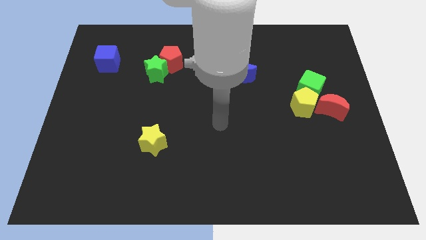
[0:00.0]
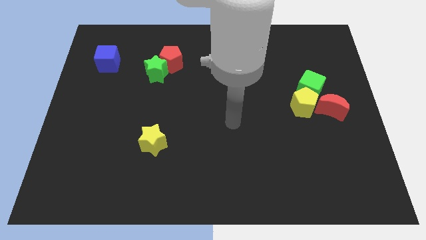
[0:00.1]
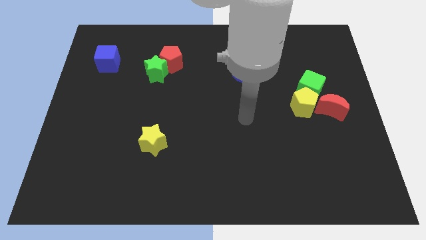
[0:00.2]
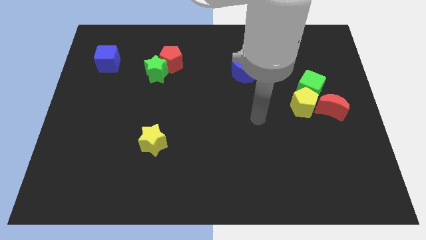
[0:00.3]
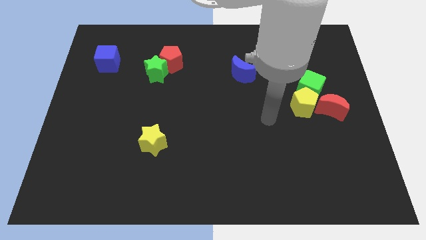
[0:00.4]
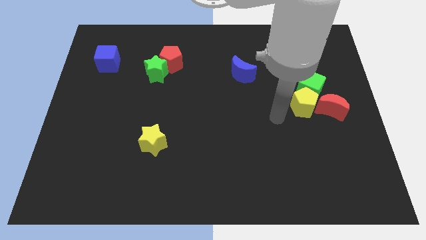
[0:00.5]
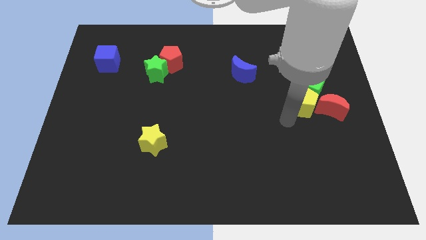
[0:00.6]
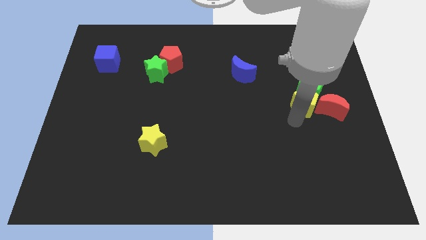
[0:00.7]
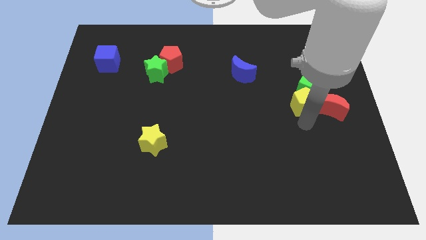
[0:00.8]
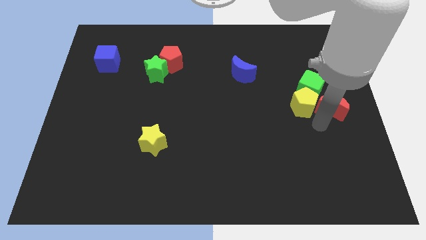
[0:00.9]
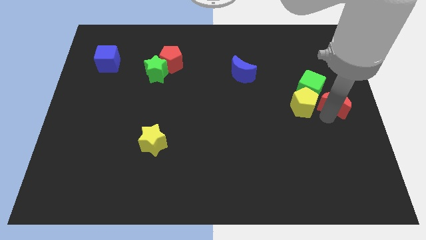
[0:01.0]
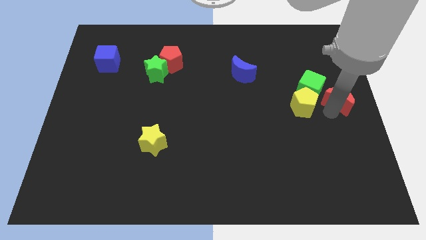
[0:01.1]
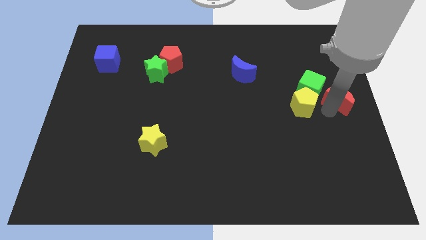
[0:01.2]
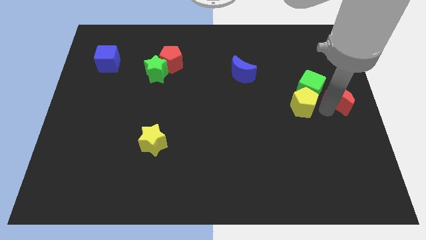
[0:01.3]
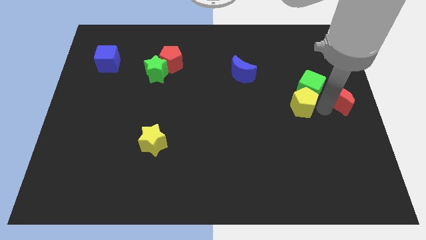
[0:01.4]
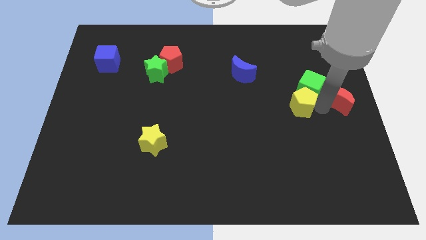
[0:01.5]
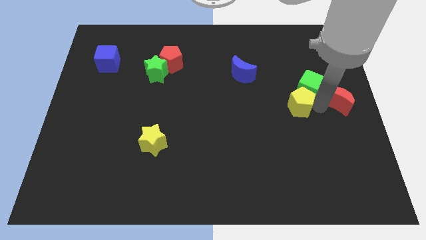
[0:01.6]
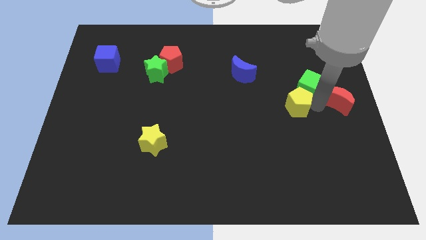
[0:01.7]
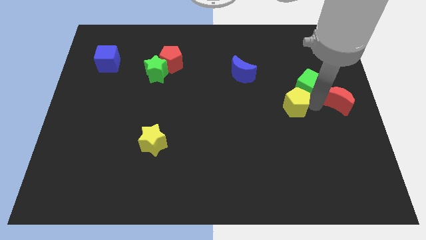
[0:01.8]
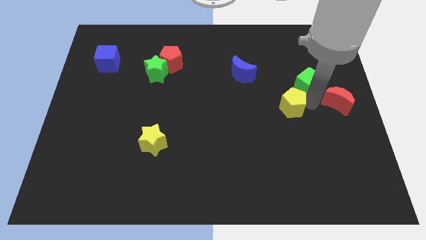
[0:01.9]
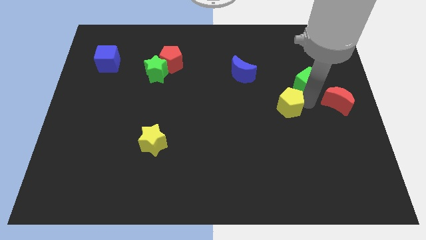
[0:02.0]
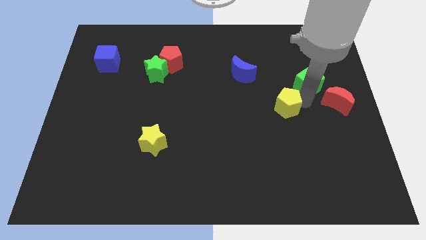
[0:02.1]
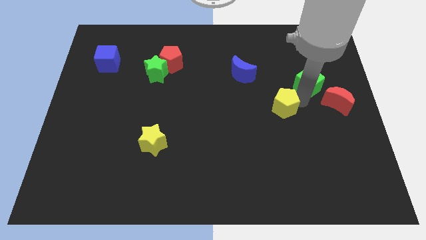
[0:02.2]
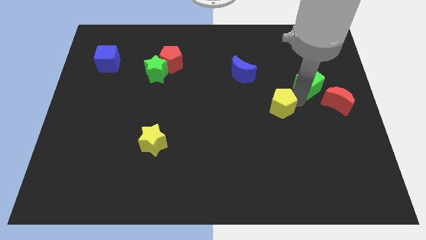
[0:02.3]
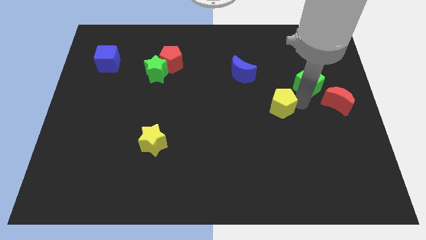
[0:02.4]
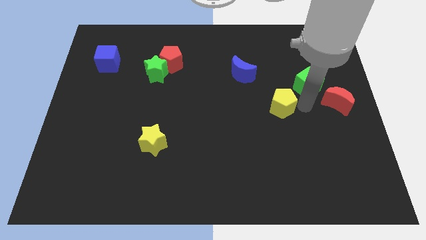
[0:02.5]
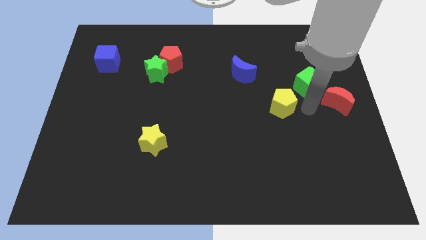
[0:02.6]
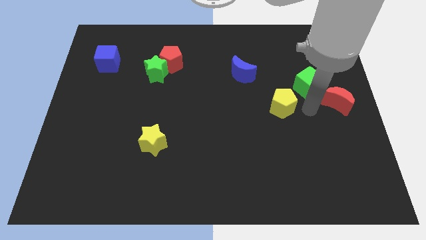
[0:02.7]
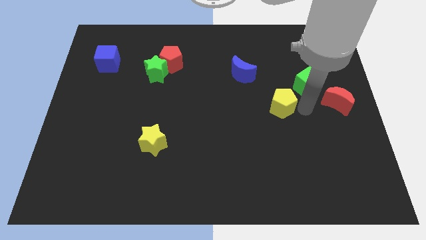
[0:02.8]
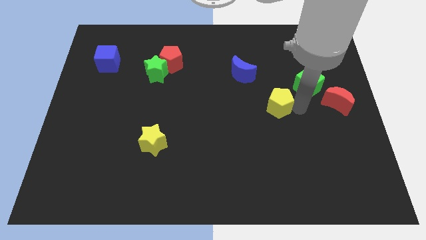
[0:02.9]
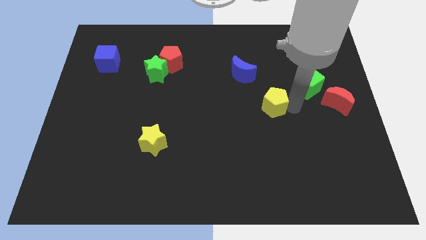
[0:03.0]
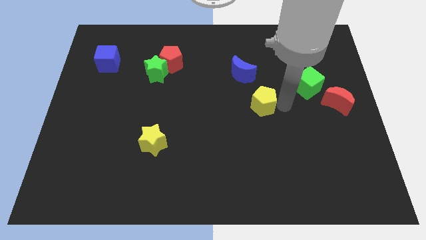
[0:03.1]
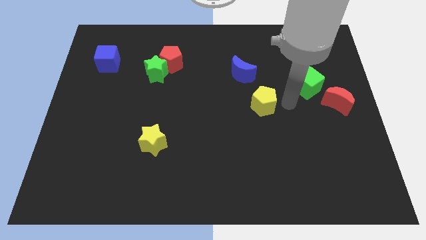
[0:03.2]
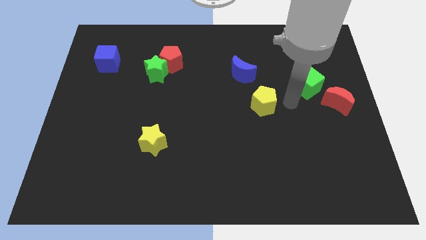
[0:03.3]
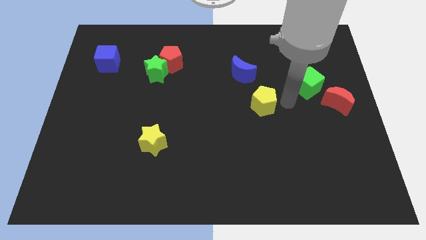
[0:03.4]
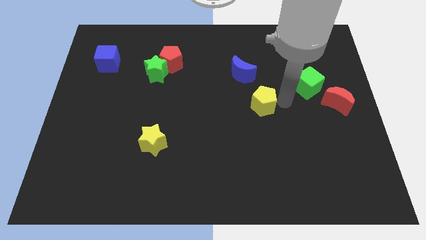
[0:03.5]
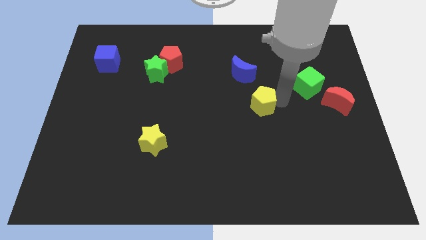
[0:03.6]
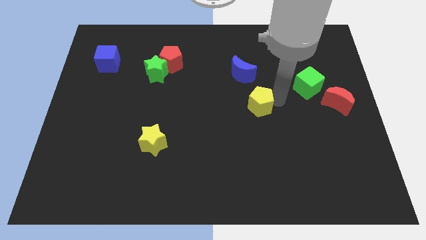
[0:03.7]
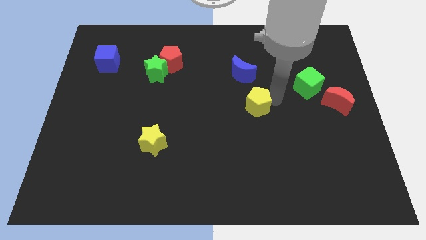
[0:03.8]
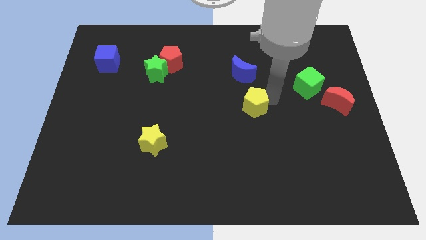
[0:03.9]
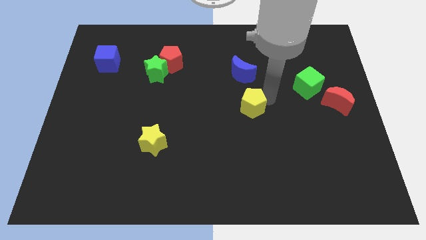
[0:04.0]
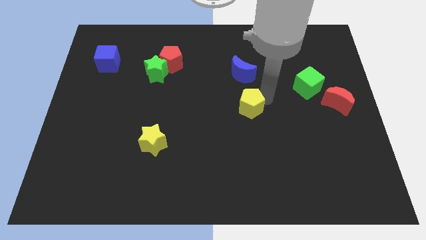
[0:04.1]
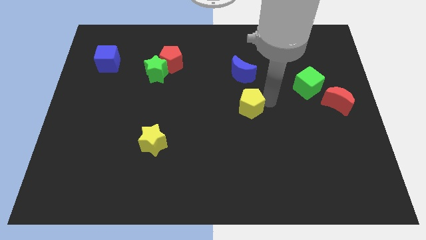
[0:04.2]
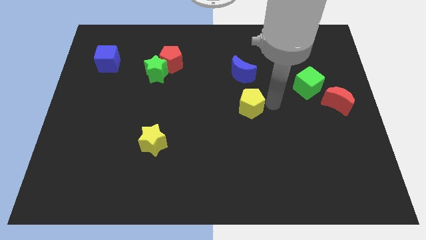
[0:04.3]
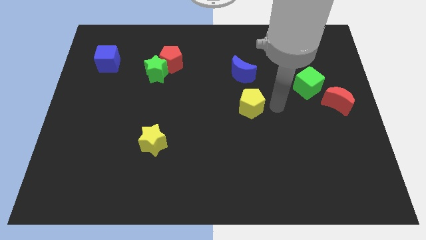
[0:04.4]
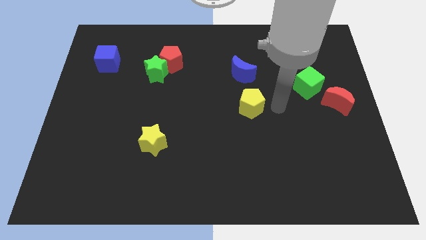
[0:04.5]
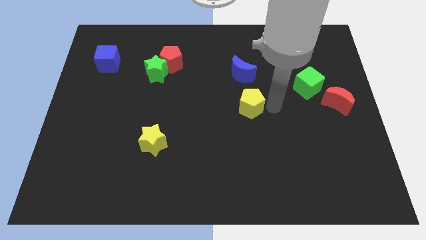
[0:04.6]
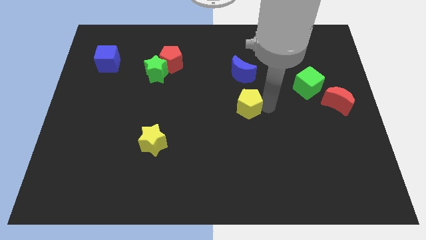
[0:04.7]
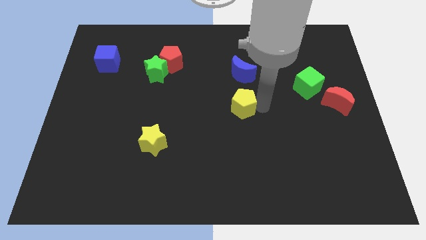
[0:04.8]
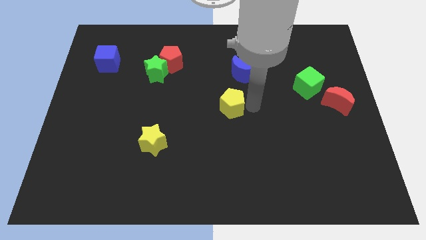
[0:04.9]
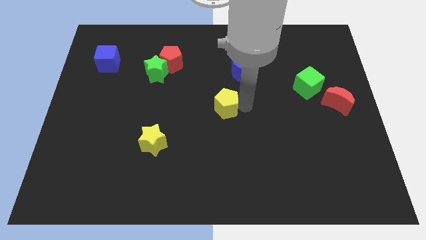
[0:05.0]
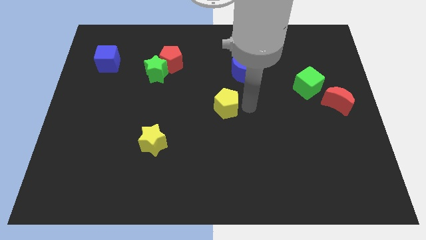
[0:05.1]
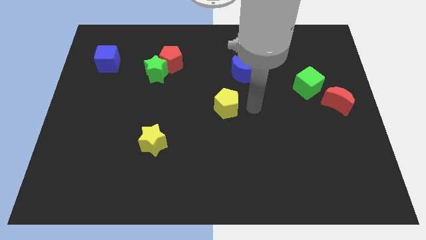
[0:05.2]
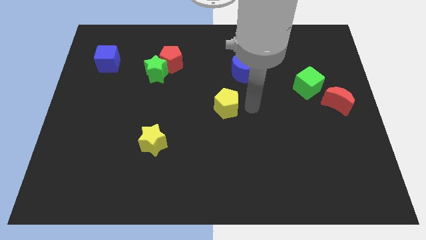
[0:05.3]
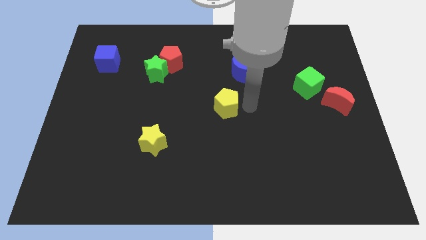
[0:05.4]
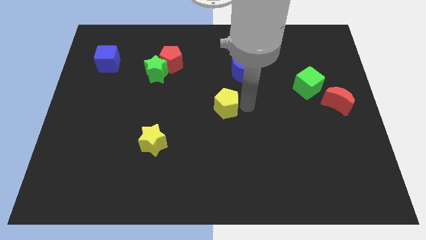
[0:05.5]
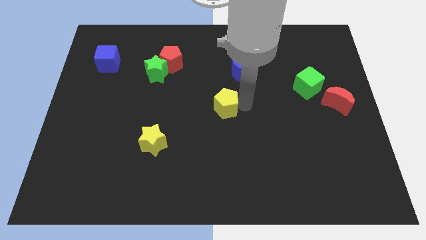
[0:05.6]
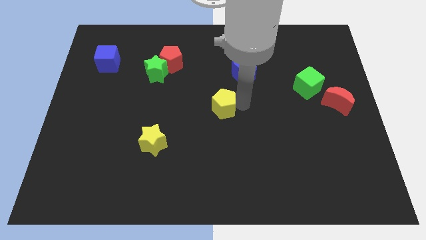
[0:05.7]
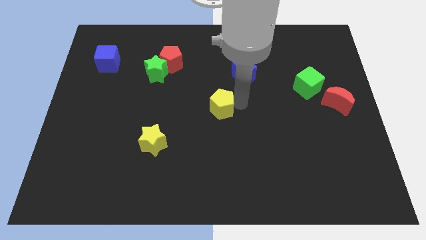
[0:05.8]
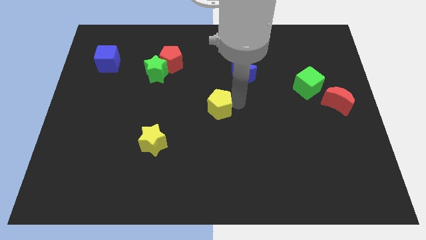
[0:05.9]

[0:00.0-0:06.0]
push the yellow pentagon left

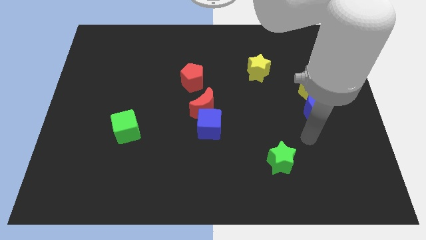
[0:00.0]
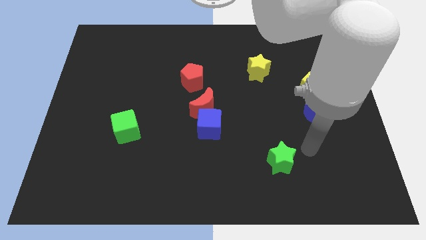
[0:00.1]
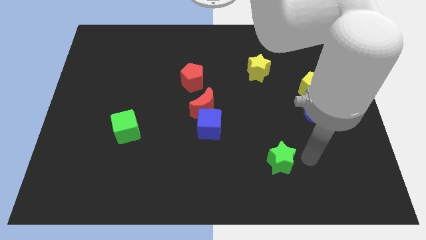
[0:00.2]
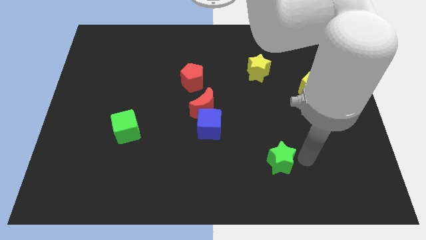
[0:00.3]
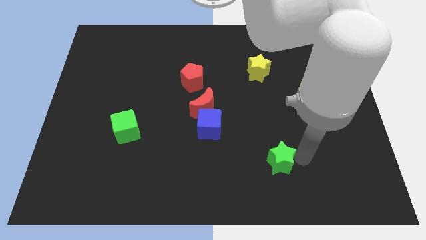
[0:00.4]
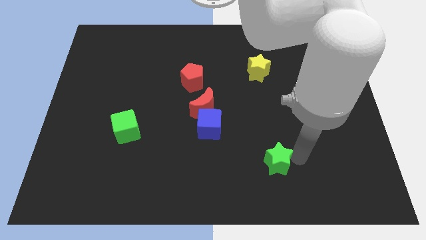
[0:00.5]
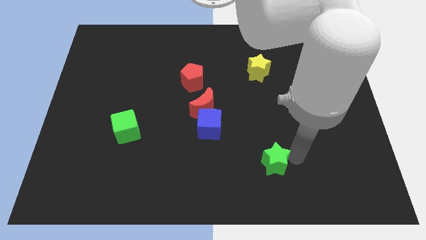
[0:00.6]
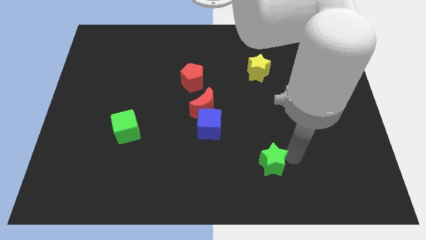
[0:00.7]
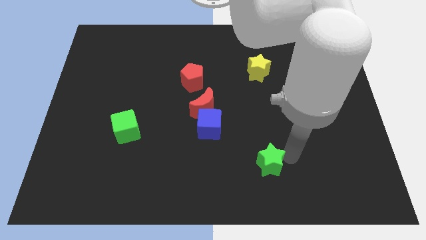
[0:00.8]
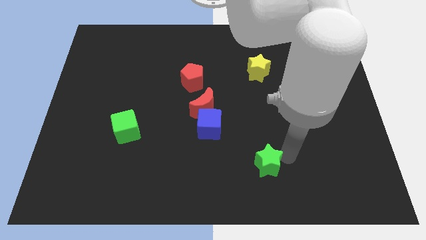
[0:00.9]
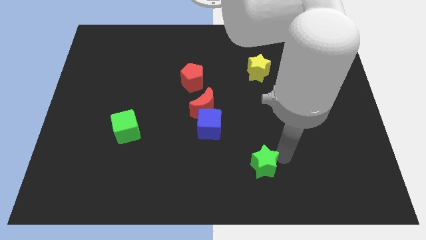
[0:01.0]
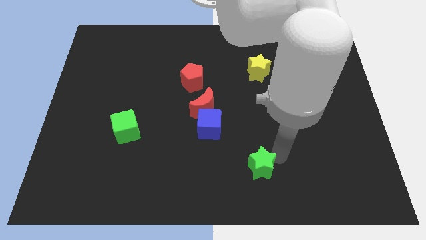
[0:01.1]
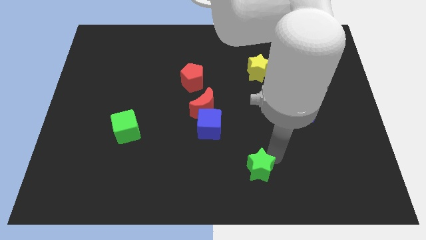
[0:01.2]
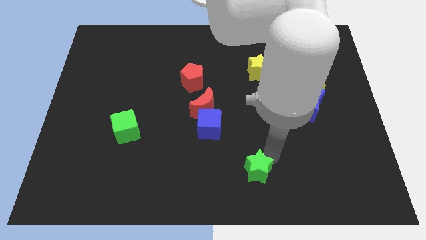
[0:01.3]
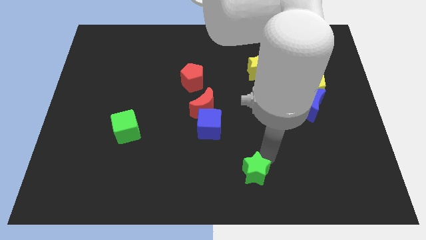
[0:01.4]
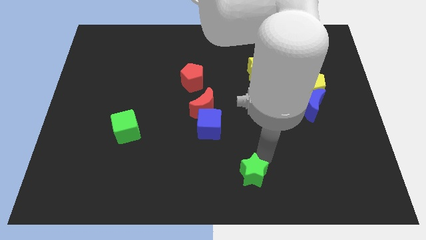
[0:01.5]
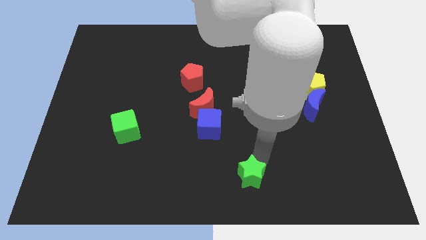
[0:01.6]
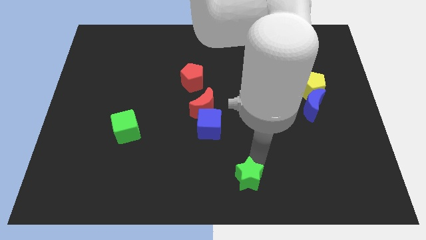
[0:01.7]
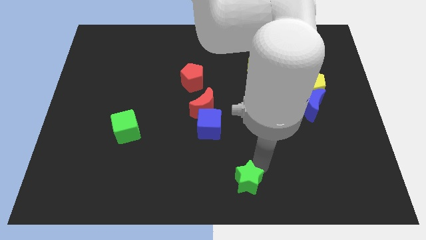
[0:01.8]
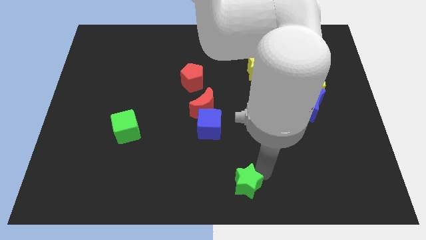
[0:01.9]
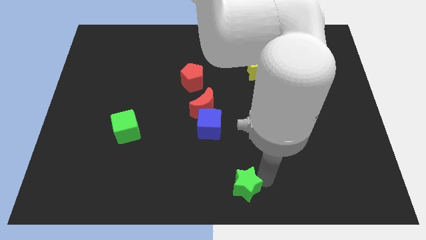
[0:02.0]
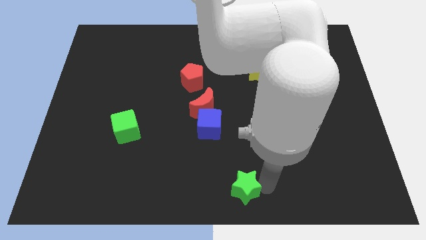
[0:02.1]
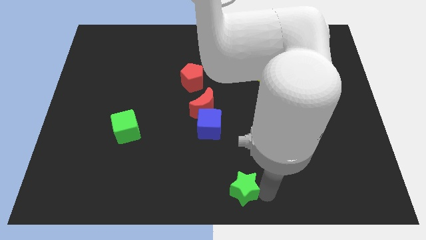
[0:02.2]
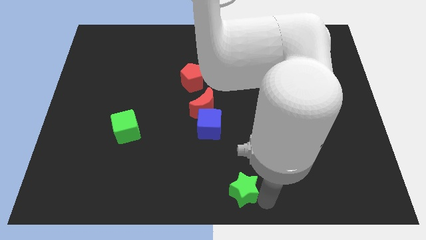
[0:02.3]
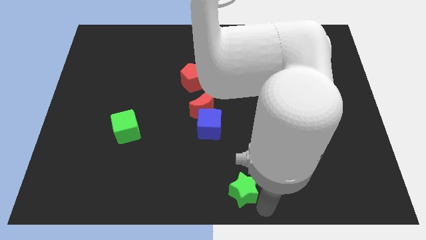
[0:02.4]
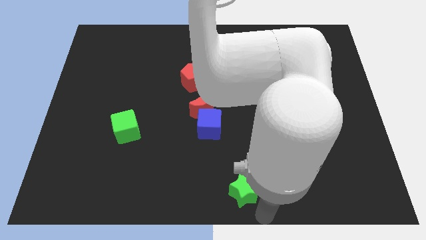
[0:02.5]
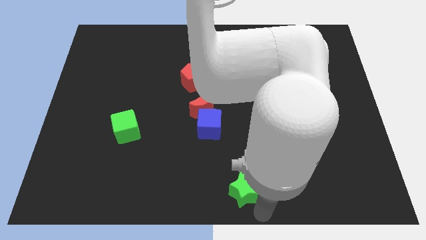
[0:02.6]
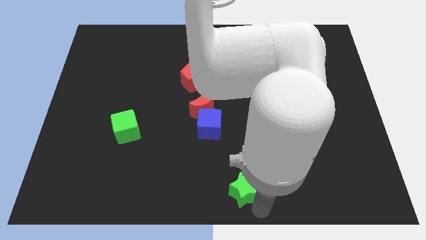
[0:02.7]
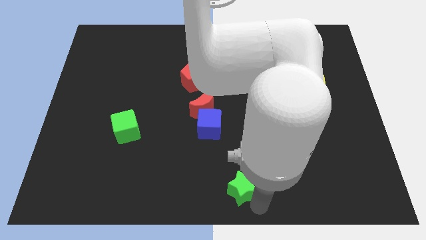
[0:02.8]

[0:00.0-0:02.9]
slightly push the green star to the left
